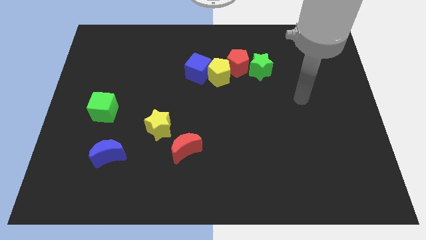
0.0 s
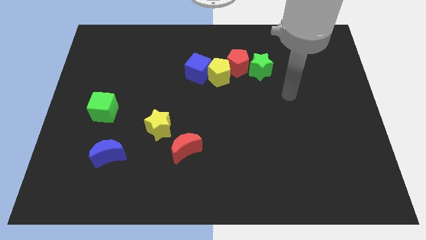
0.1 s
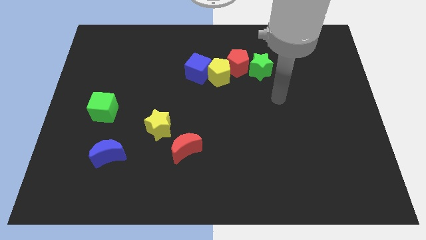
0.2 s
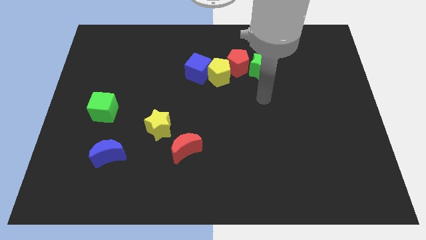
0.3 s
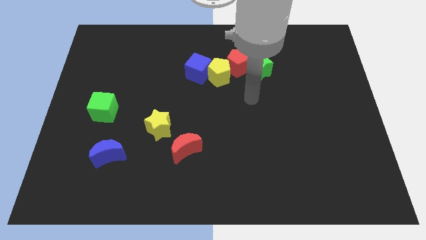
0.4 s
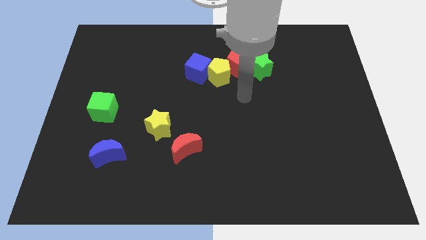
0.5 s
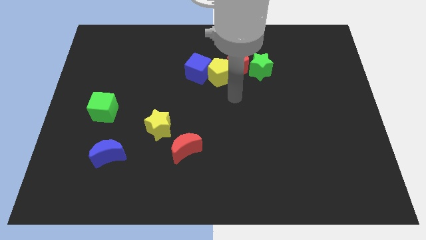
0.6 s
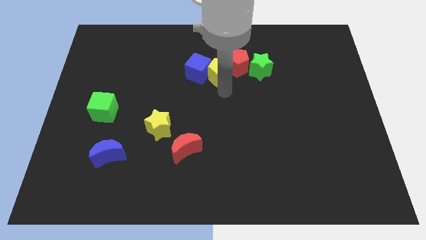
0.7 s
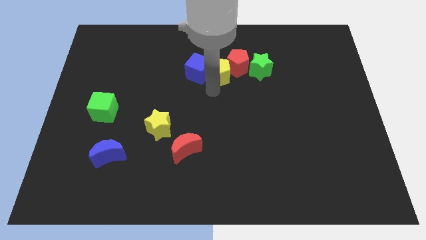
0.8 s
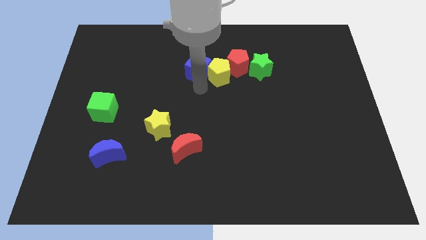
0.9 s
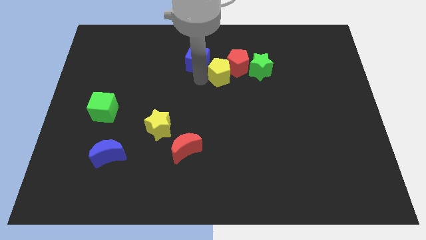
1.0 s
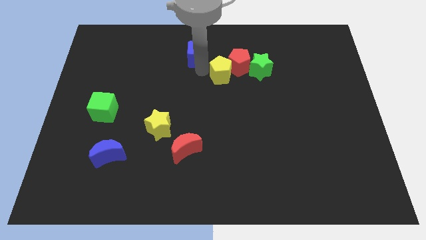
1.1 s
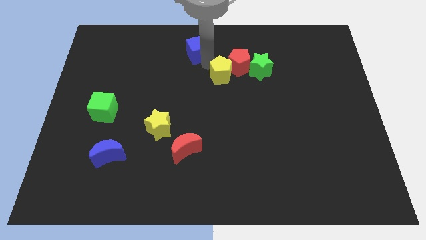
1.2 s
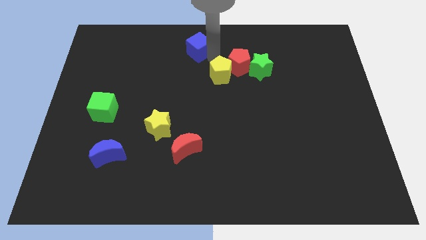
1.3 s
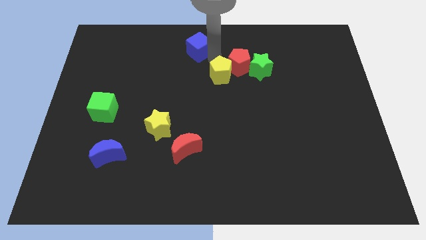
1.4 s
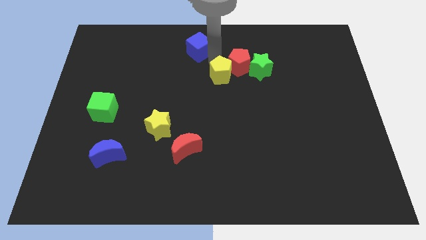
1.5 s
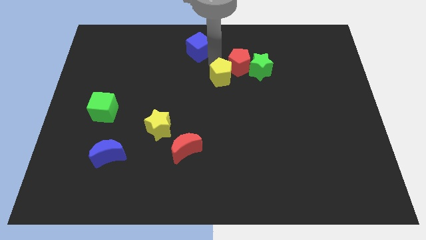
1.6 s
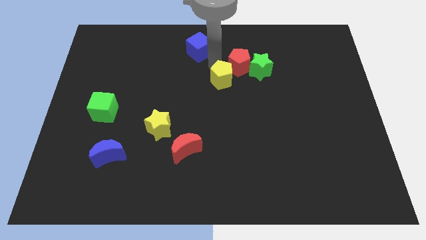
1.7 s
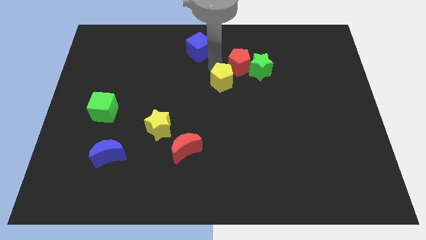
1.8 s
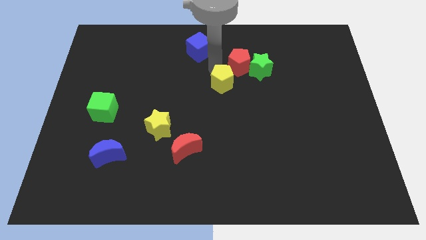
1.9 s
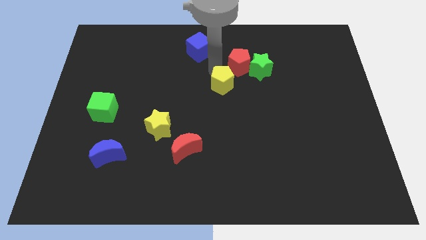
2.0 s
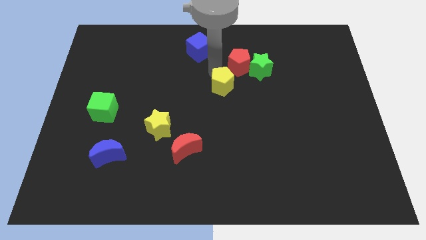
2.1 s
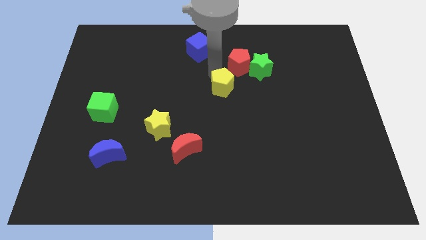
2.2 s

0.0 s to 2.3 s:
separate the yellow pentagon from the red pentagon and blue cube

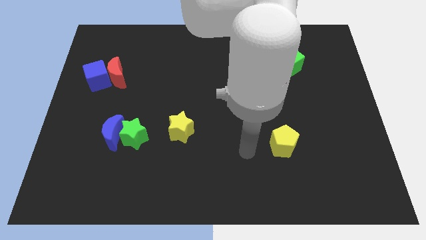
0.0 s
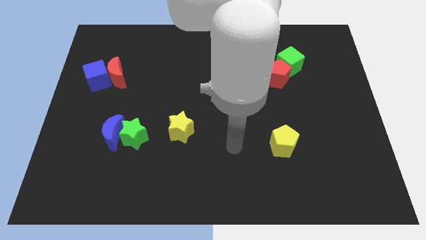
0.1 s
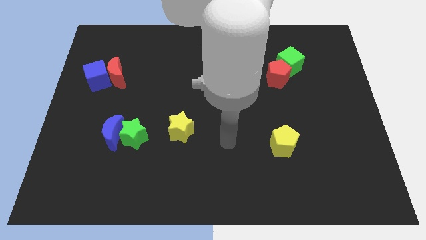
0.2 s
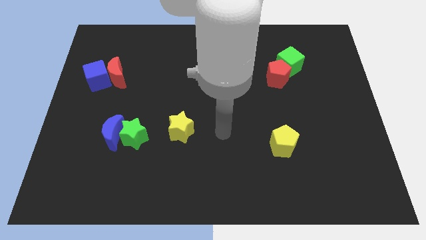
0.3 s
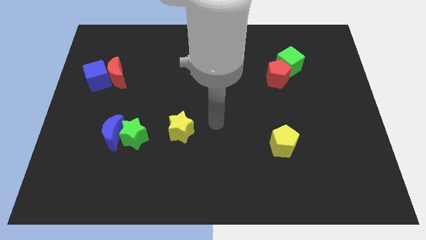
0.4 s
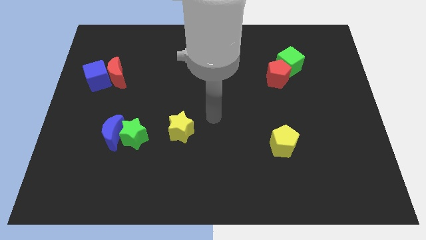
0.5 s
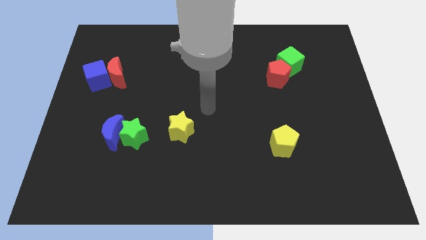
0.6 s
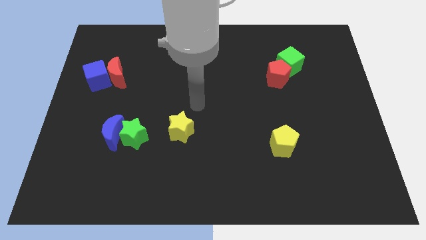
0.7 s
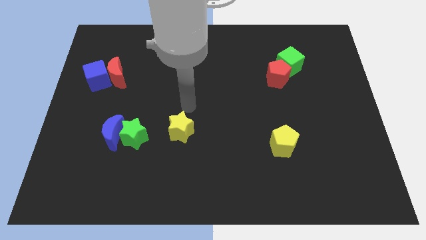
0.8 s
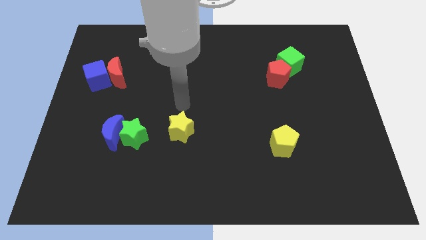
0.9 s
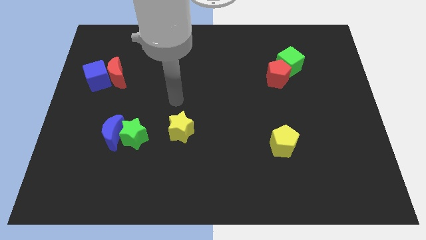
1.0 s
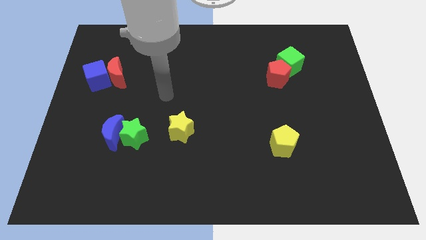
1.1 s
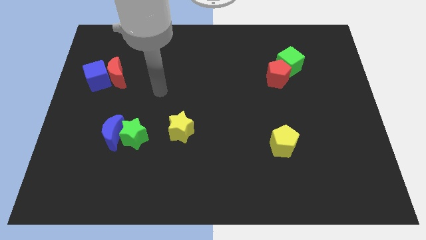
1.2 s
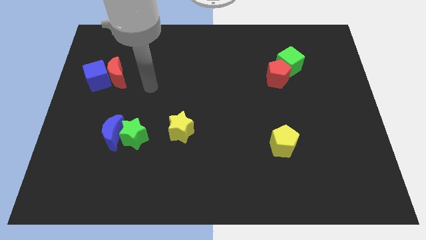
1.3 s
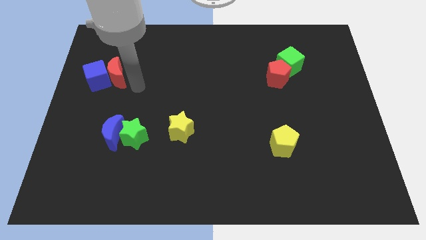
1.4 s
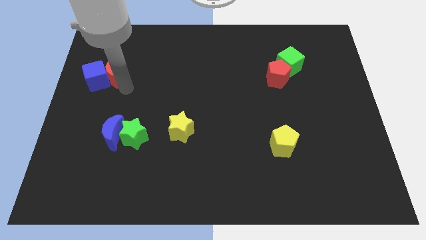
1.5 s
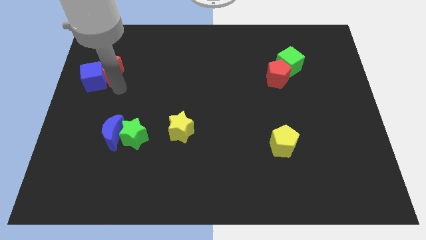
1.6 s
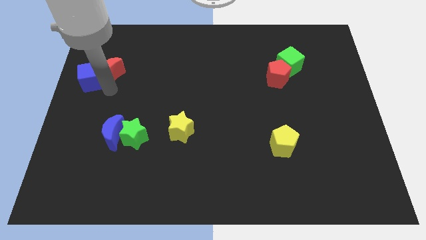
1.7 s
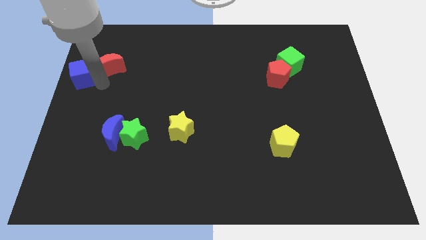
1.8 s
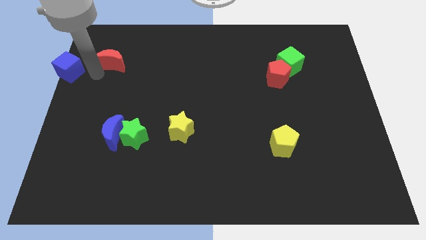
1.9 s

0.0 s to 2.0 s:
separate the red moon from the blue cube

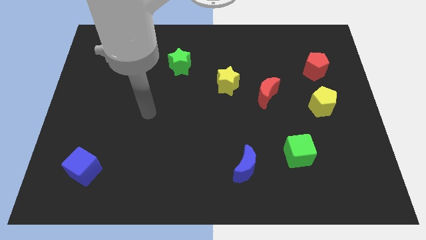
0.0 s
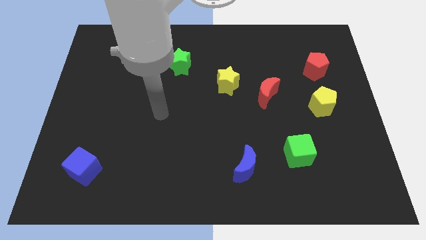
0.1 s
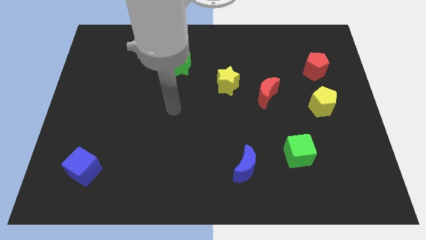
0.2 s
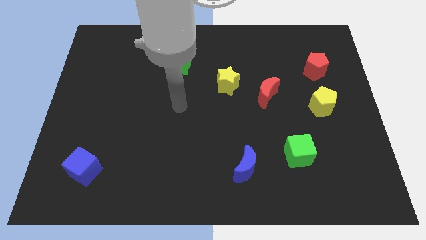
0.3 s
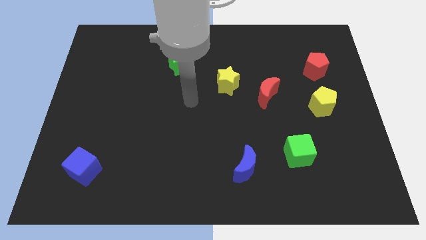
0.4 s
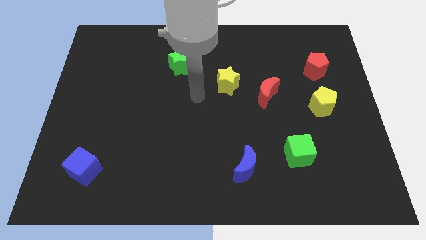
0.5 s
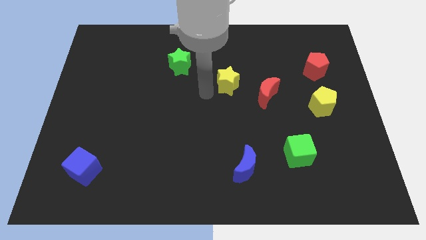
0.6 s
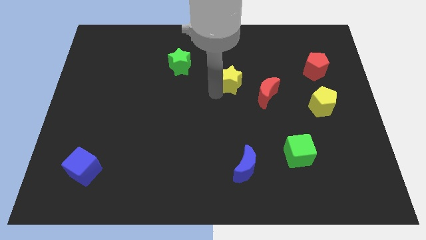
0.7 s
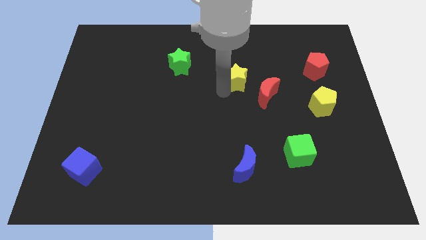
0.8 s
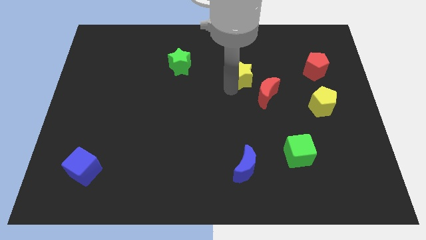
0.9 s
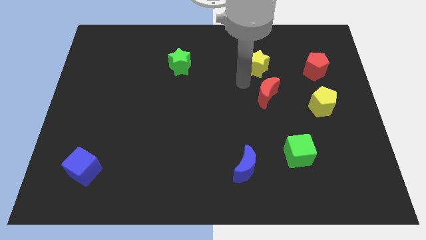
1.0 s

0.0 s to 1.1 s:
move the red moon away from the yellow star

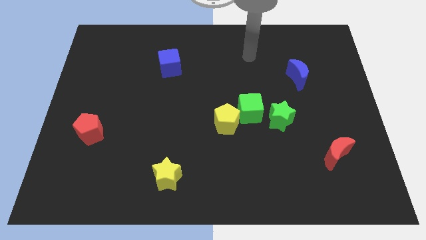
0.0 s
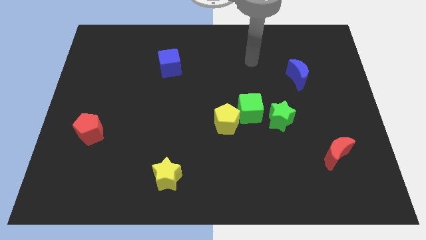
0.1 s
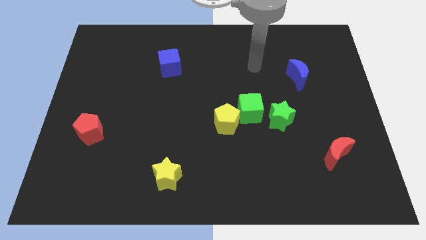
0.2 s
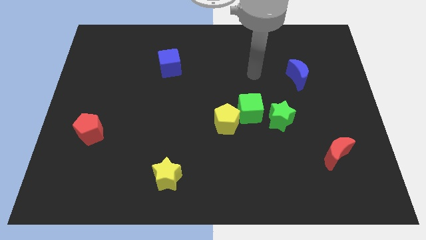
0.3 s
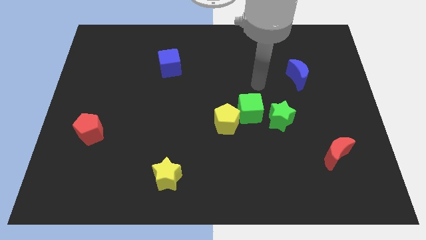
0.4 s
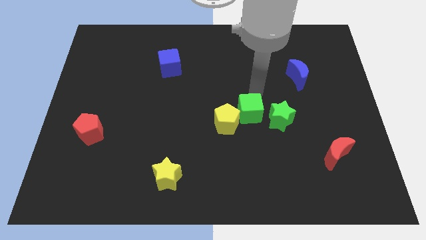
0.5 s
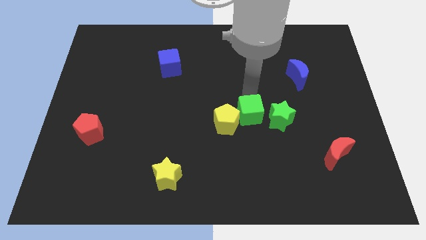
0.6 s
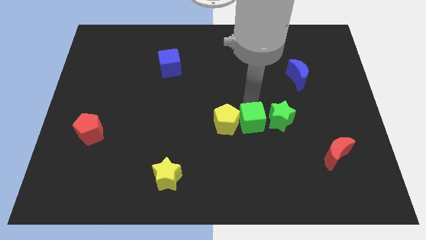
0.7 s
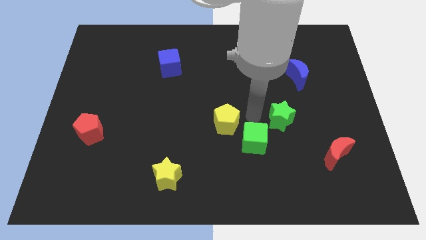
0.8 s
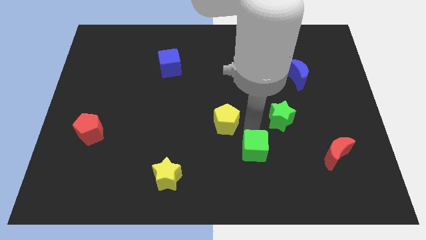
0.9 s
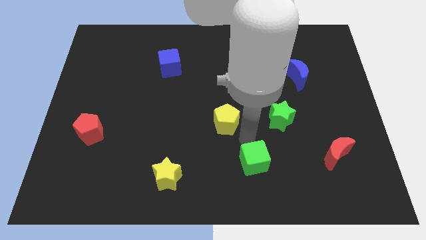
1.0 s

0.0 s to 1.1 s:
separate the yellow pentagon from the green cube

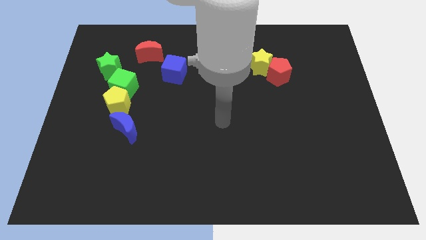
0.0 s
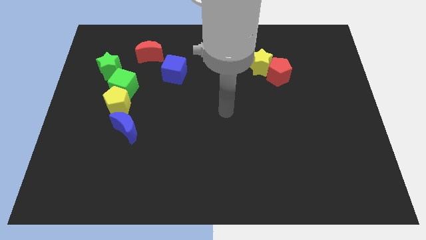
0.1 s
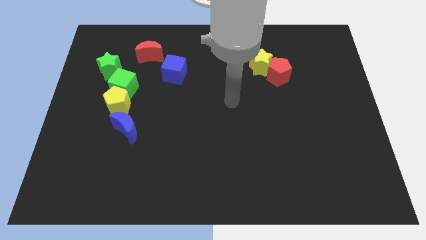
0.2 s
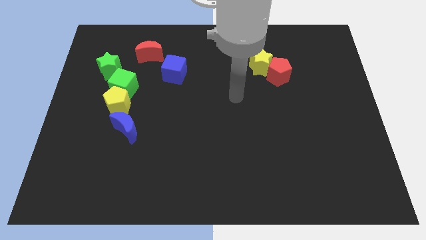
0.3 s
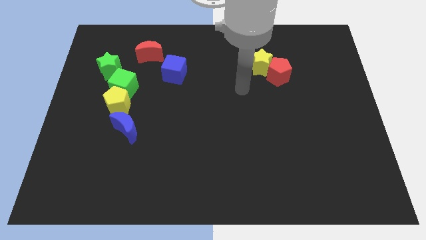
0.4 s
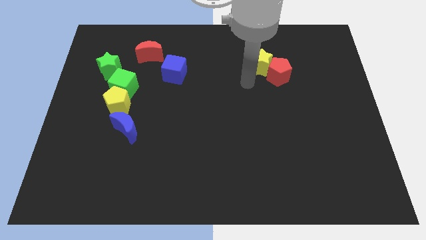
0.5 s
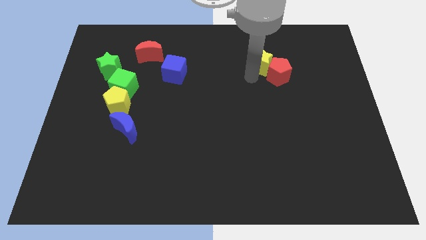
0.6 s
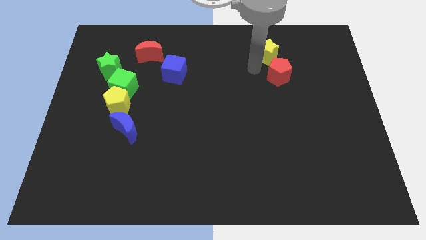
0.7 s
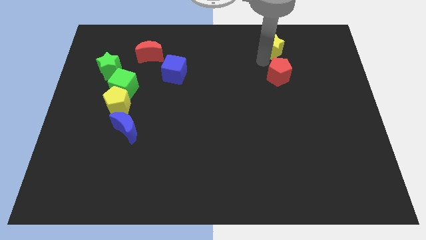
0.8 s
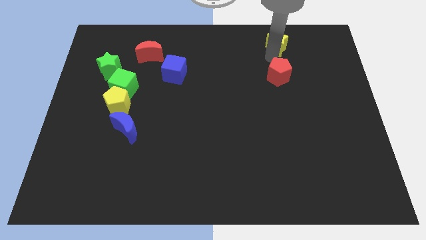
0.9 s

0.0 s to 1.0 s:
move the red pentagon away from the yellow star

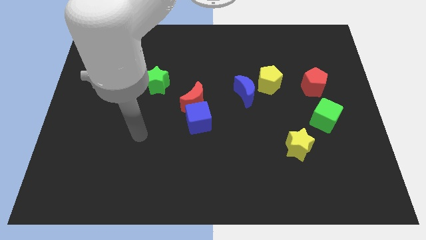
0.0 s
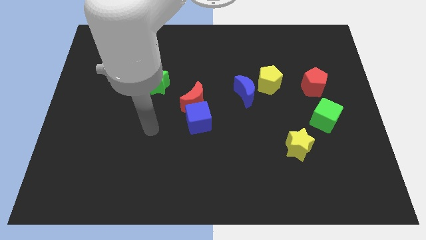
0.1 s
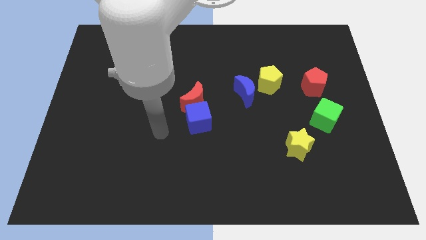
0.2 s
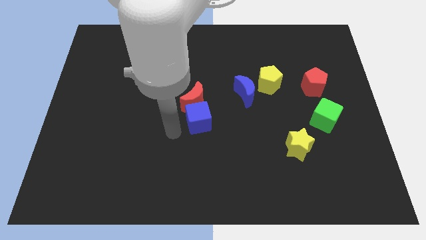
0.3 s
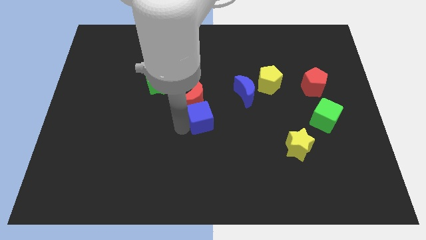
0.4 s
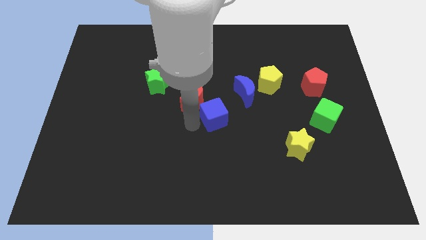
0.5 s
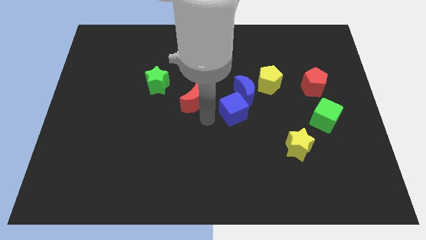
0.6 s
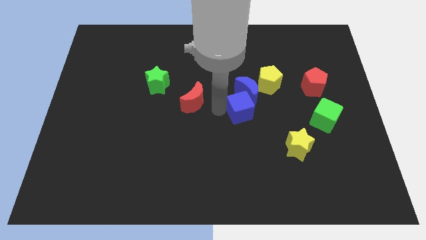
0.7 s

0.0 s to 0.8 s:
move the red moon away from the blue cube

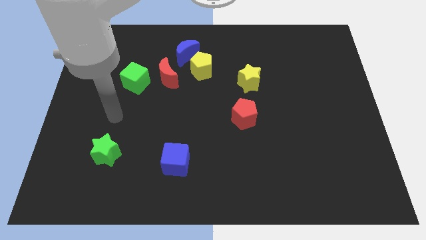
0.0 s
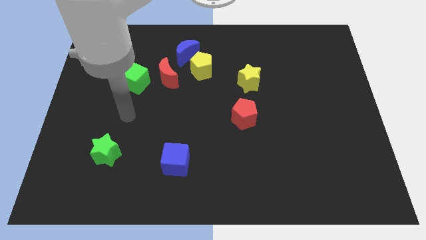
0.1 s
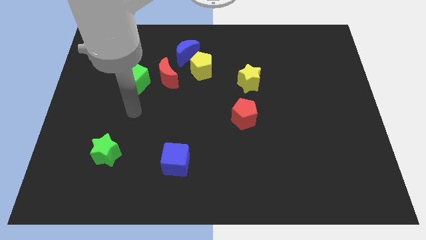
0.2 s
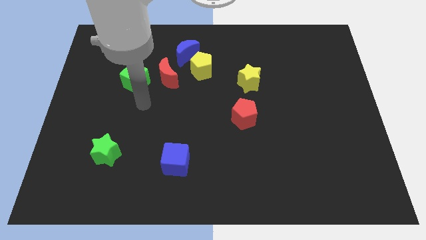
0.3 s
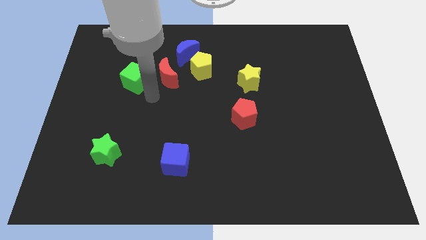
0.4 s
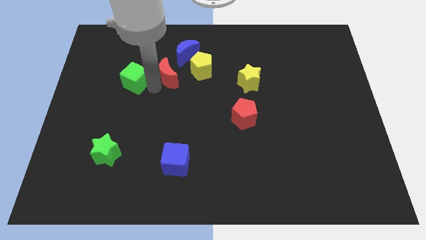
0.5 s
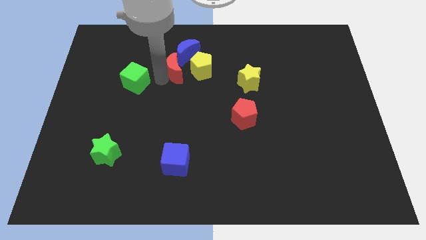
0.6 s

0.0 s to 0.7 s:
pull the green cube apart from the red moon
